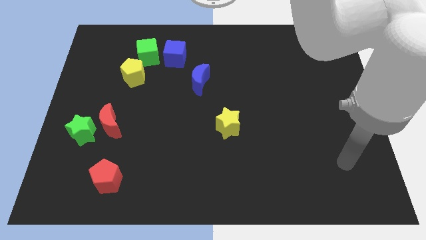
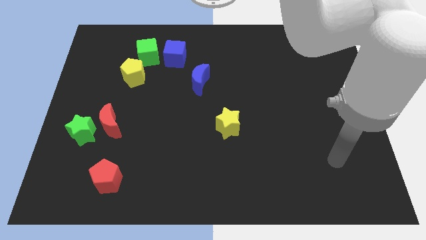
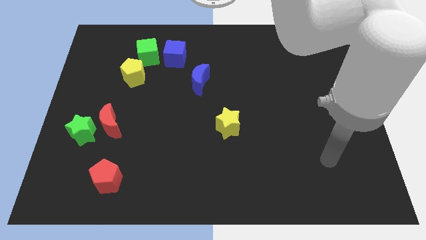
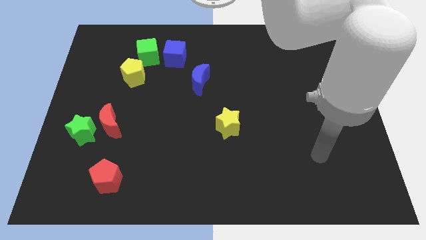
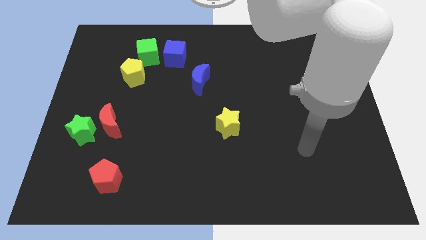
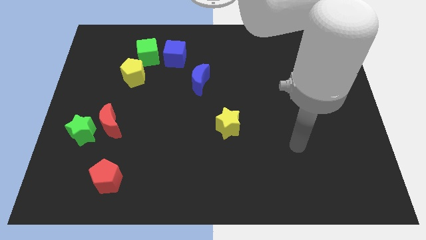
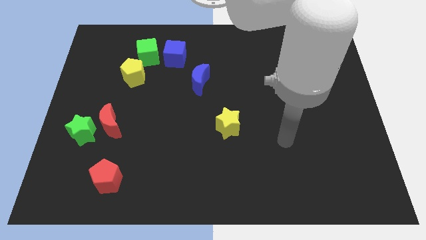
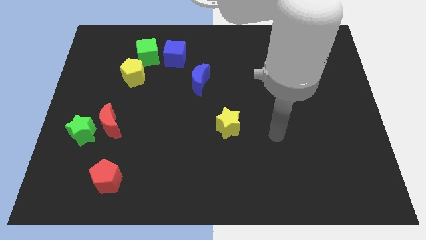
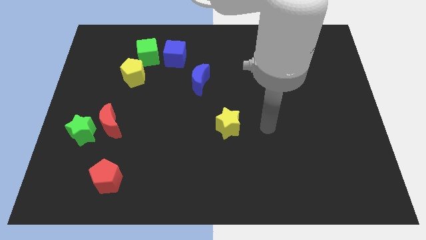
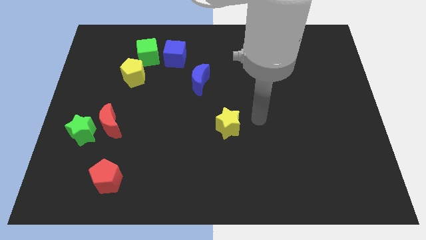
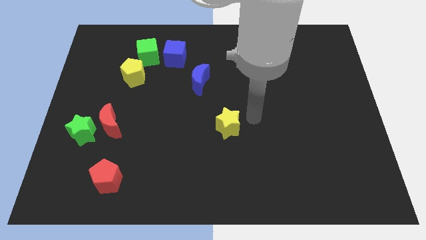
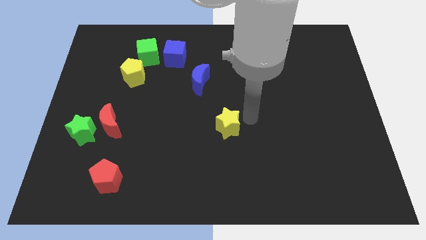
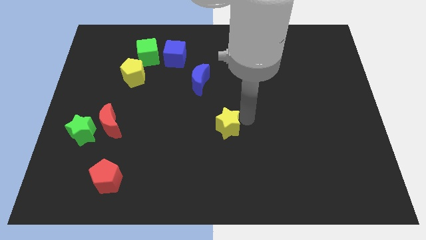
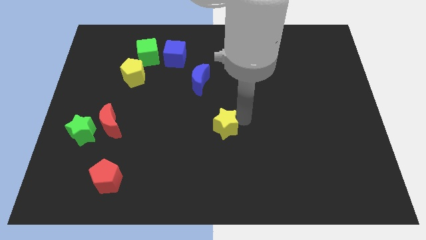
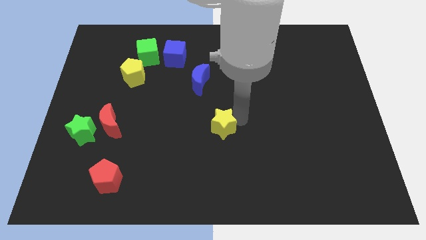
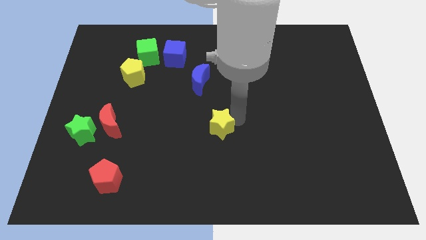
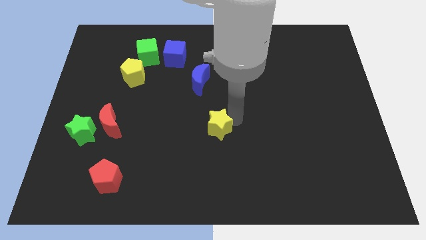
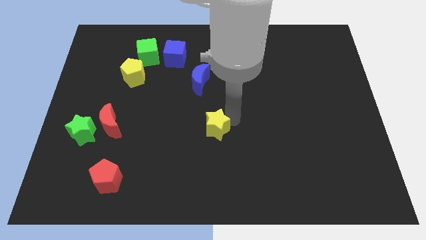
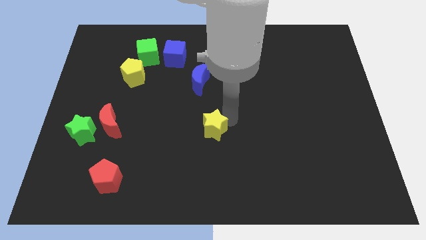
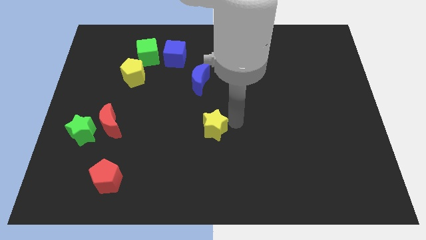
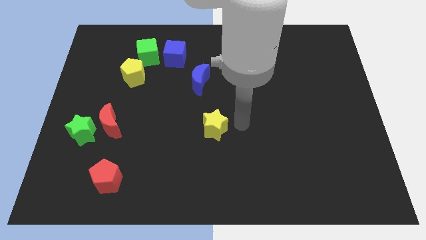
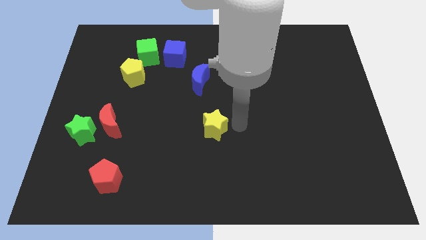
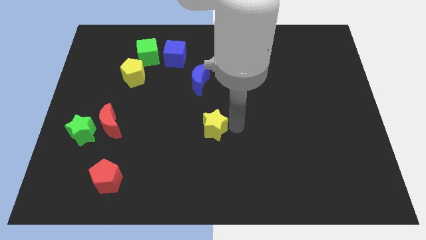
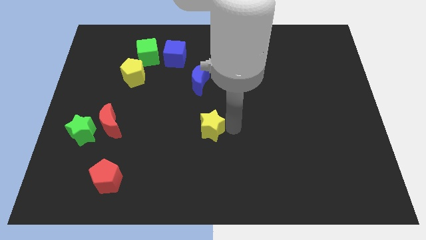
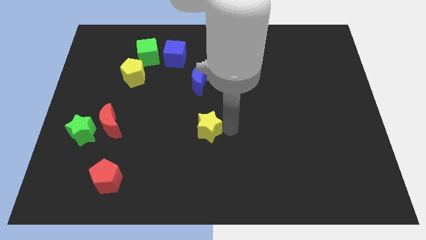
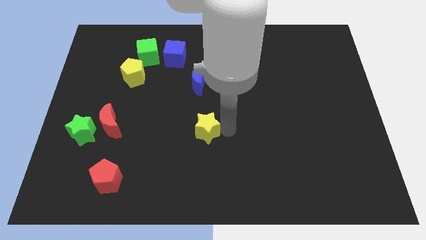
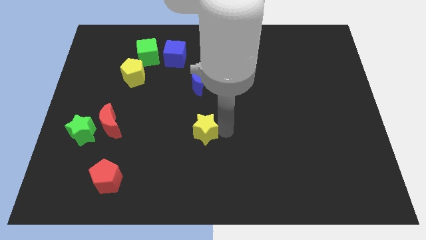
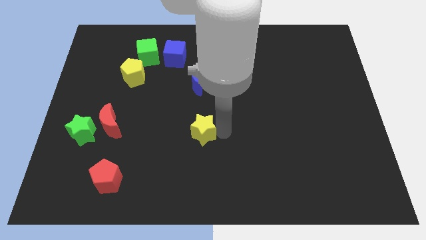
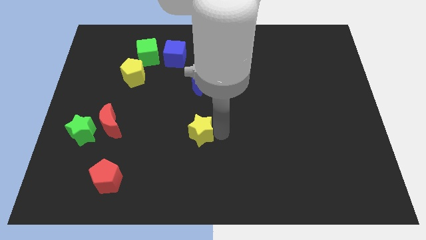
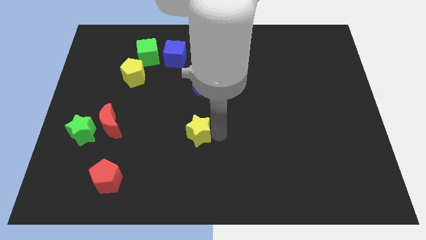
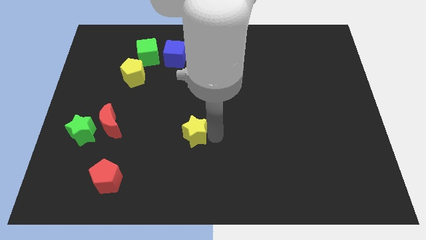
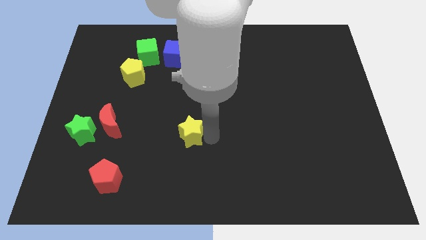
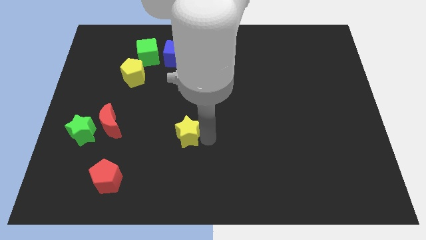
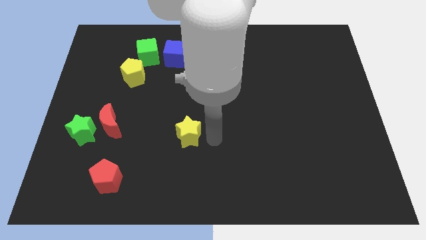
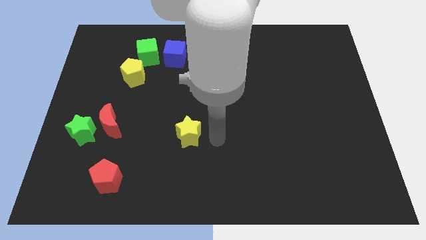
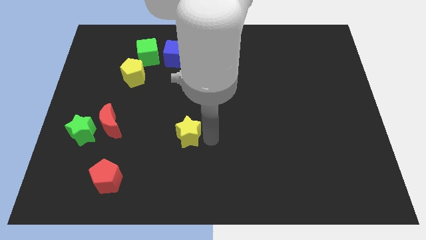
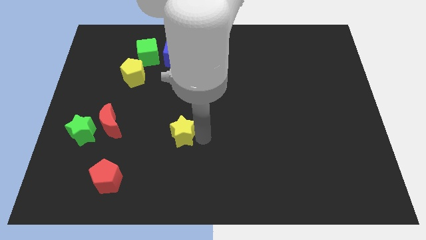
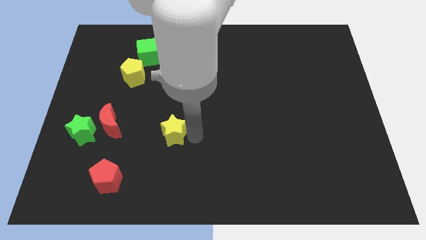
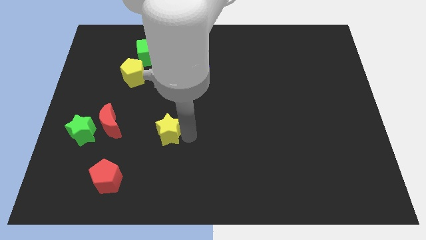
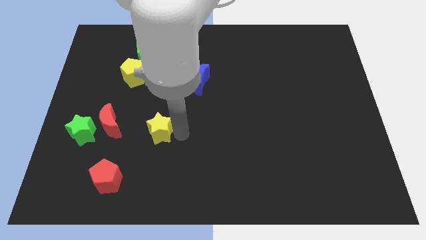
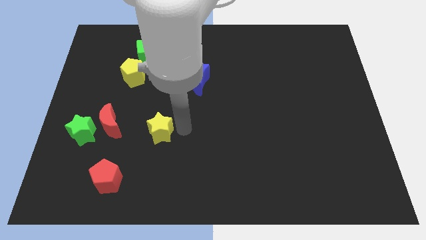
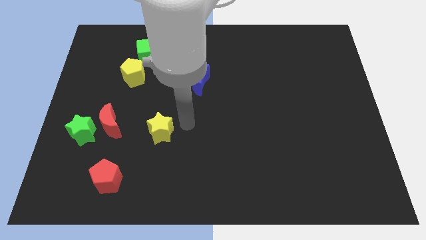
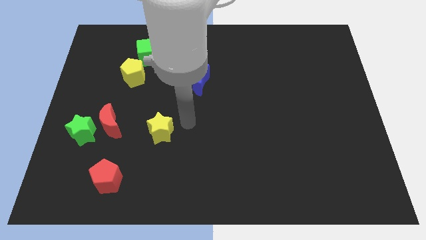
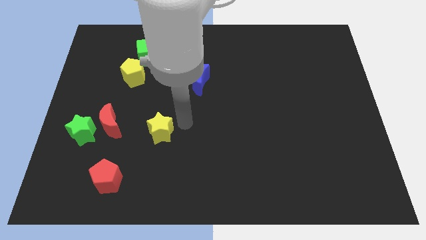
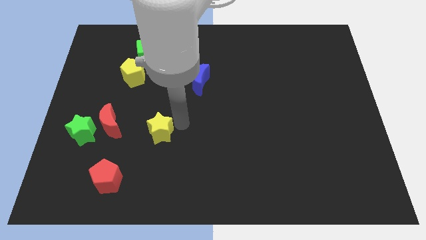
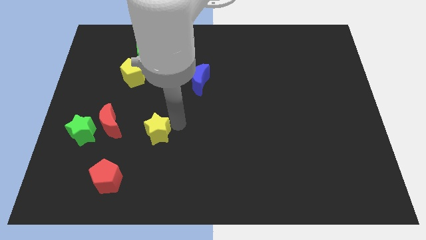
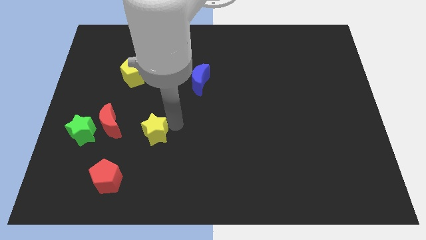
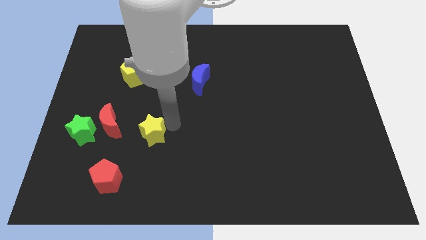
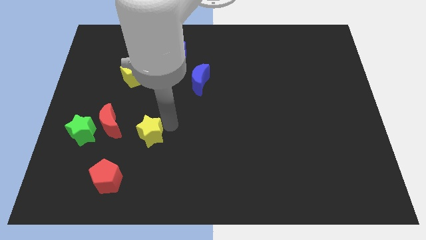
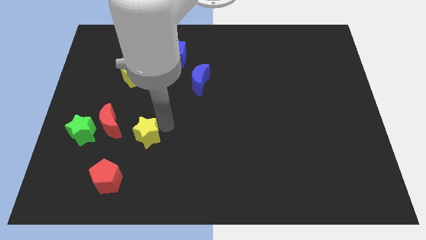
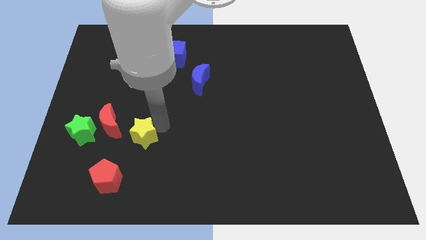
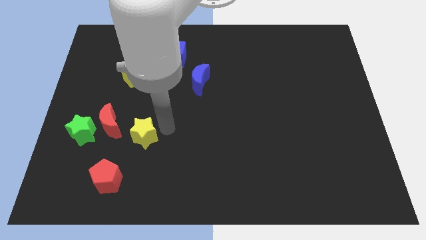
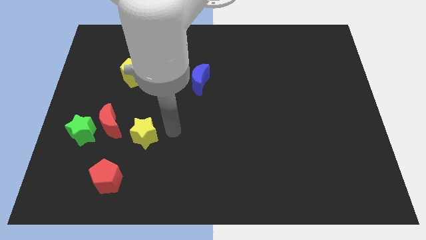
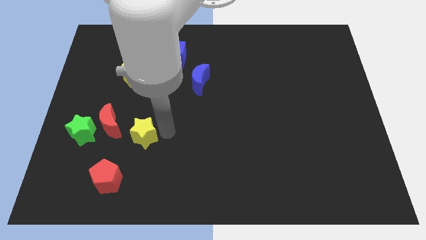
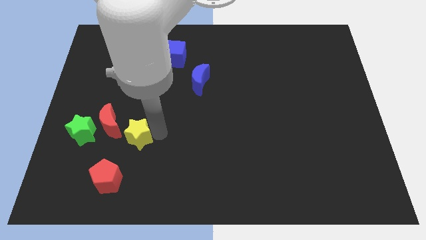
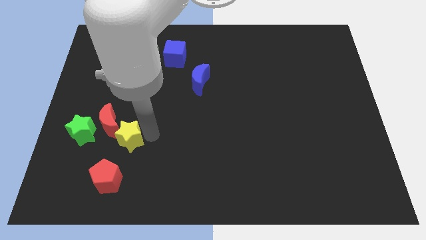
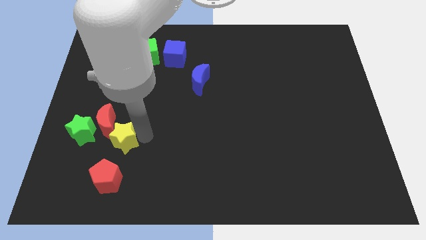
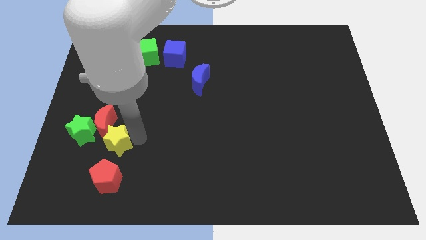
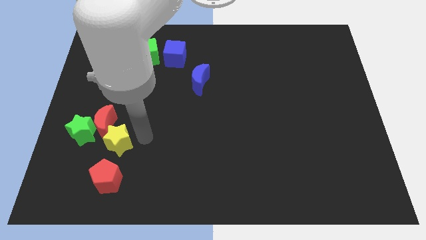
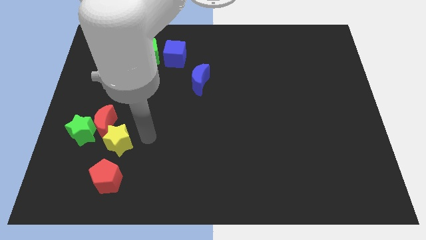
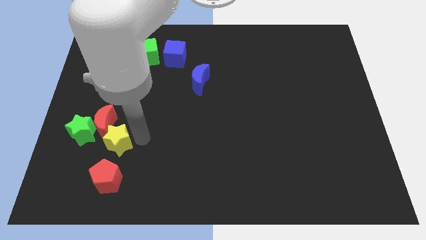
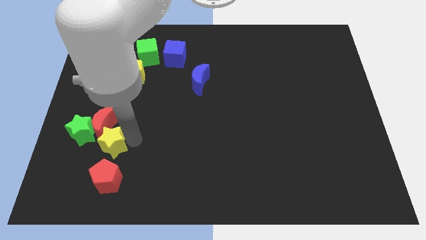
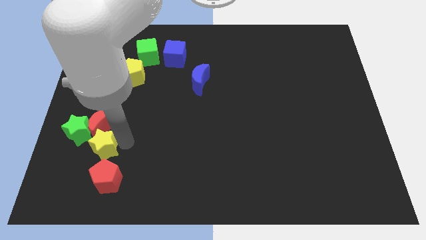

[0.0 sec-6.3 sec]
slide the yellow star diagonally down and to the left of the red moon

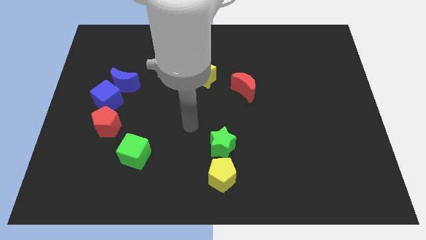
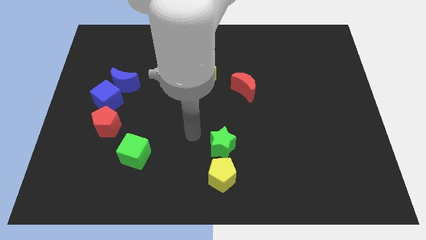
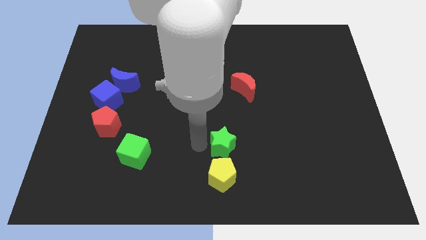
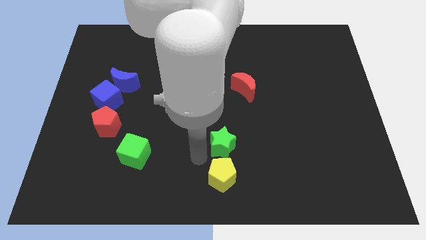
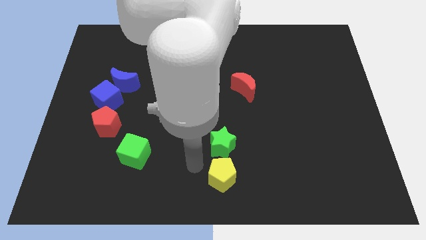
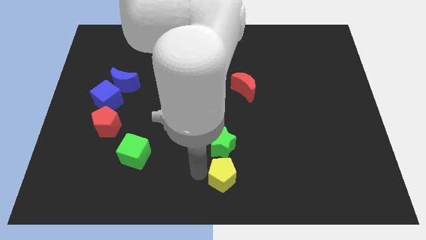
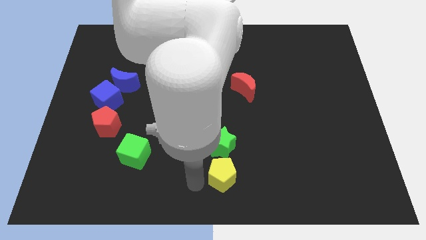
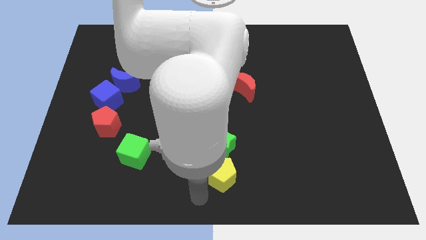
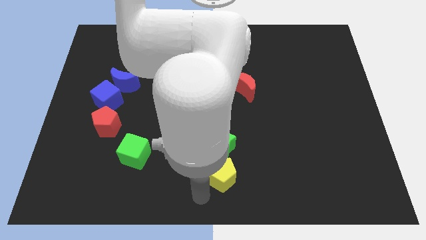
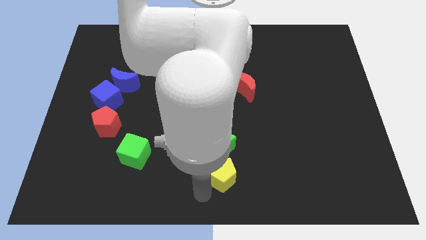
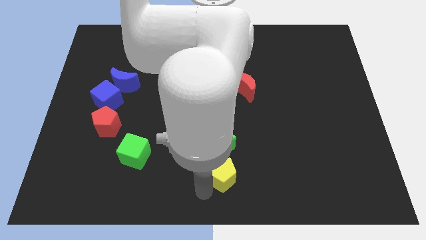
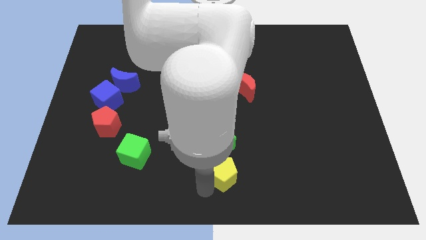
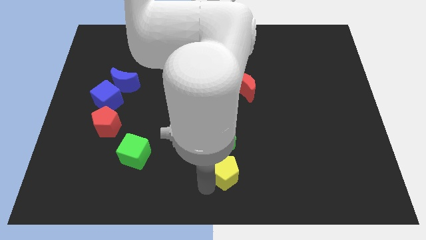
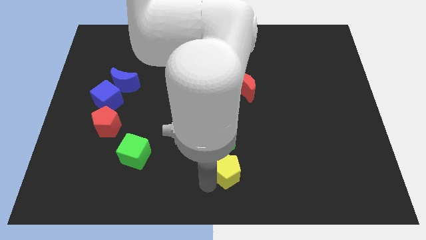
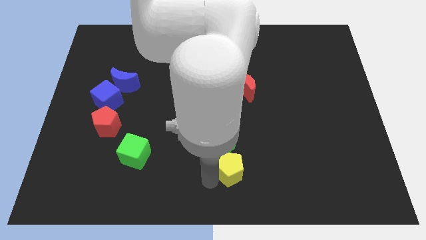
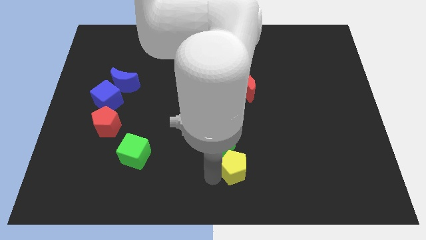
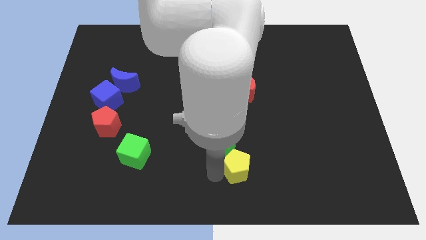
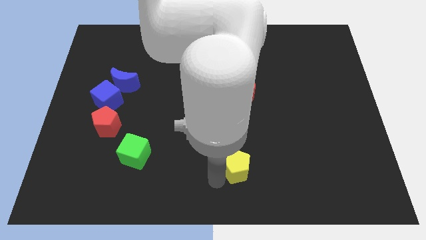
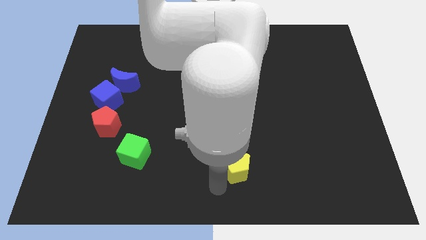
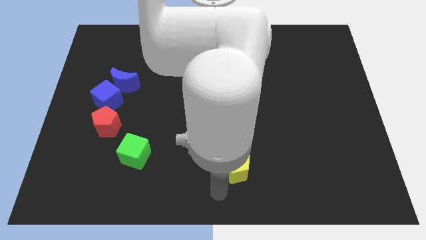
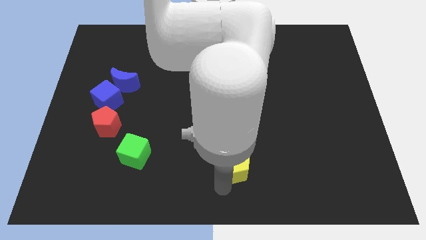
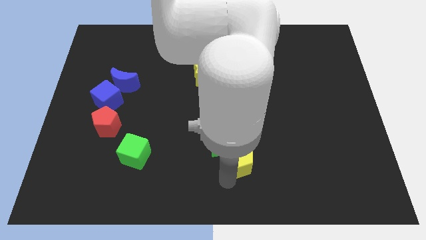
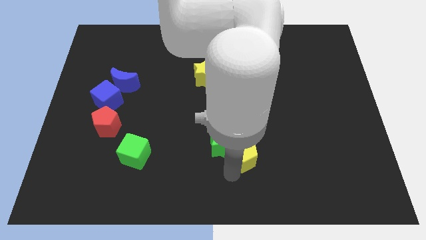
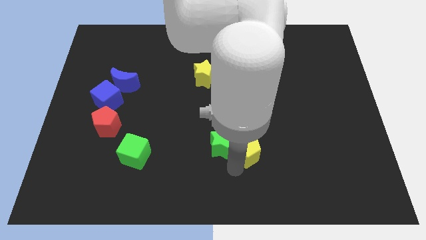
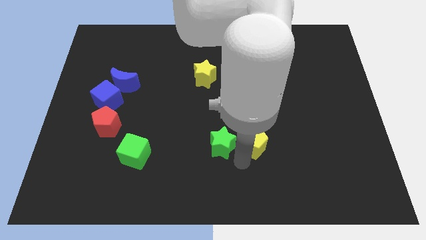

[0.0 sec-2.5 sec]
push the yellow pentagon to the bottom of the red moon
